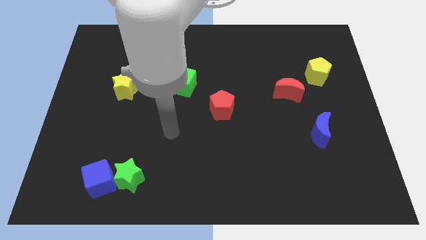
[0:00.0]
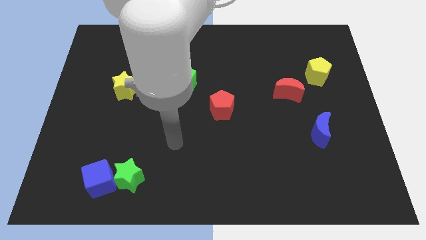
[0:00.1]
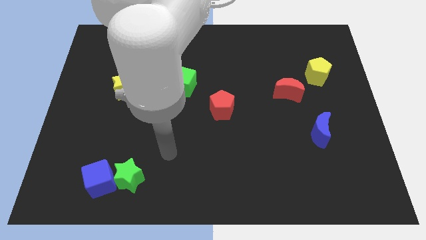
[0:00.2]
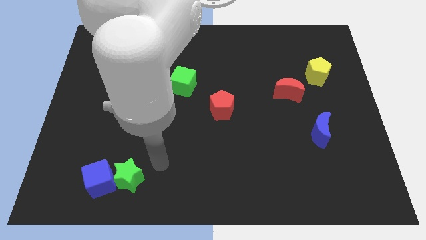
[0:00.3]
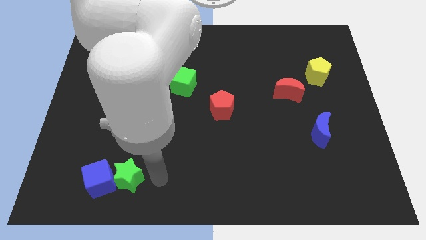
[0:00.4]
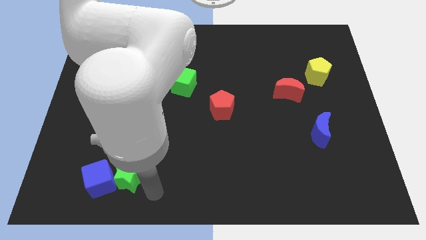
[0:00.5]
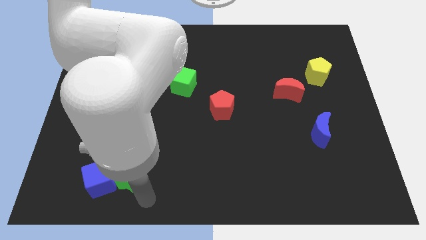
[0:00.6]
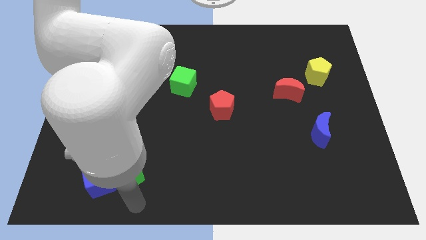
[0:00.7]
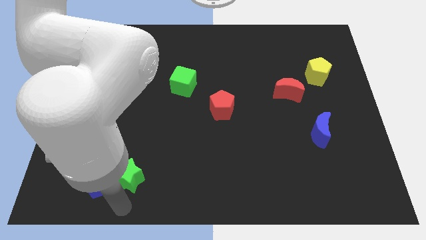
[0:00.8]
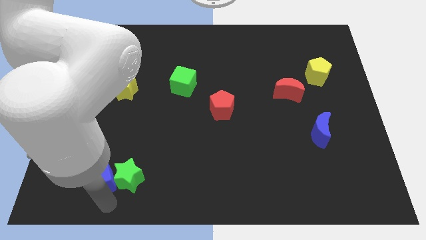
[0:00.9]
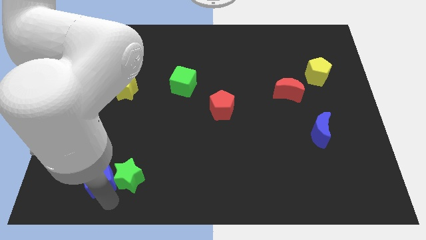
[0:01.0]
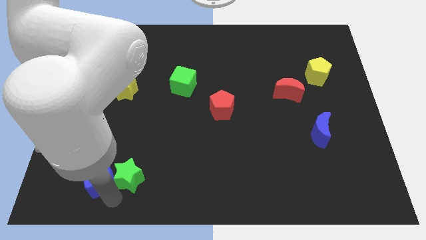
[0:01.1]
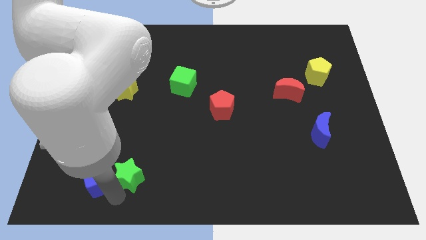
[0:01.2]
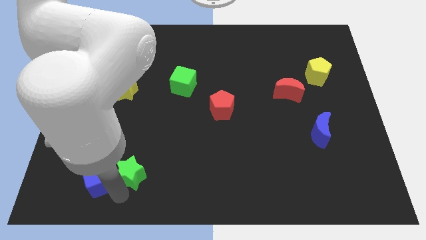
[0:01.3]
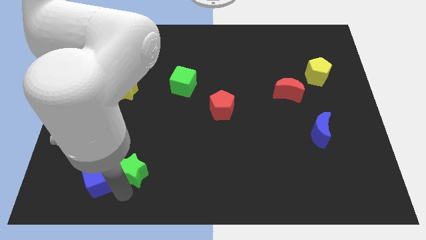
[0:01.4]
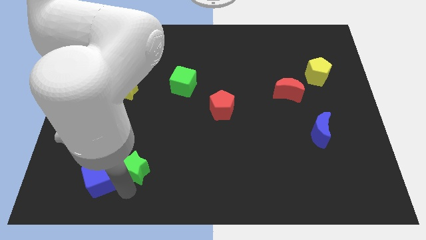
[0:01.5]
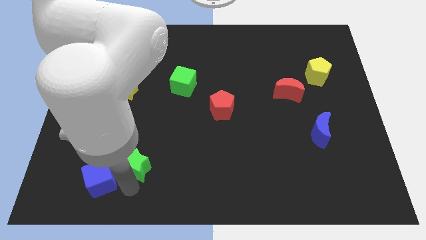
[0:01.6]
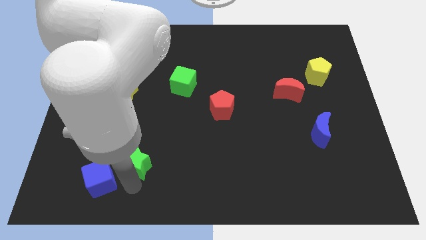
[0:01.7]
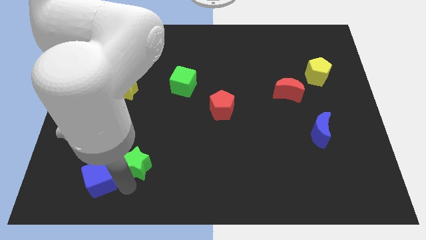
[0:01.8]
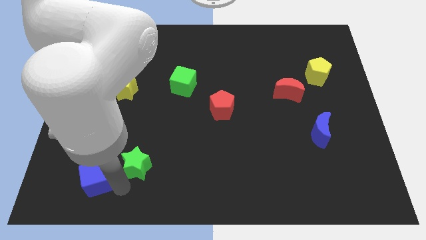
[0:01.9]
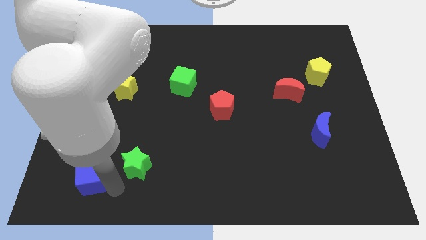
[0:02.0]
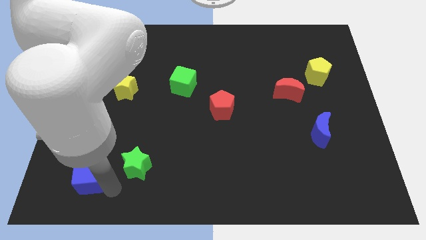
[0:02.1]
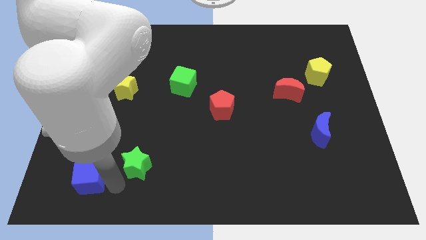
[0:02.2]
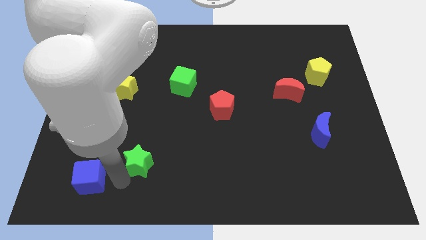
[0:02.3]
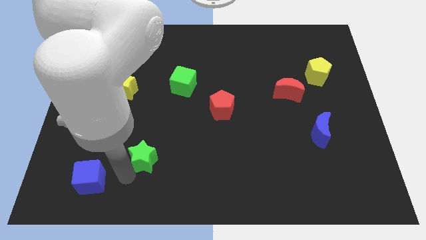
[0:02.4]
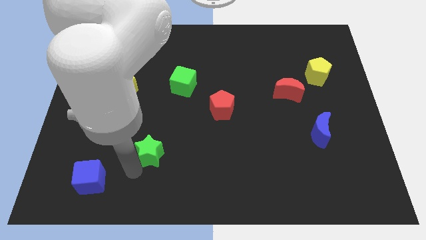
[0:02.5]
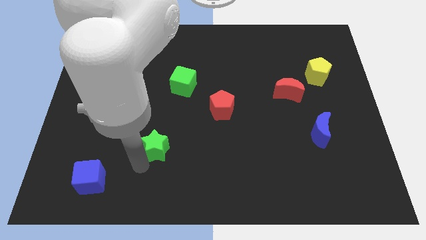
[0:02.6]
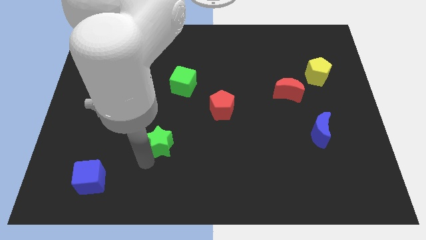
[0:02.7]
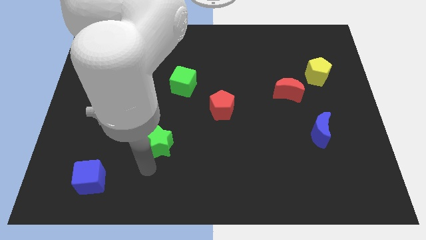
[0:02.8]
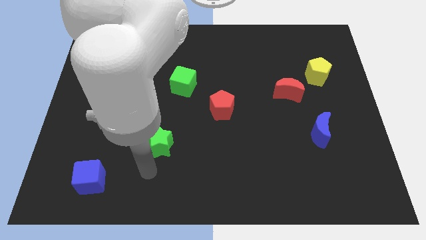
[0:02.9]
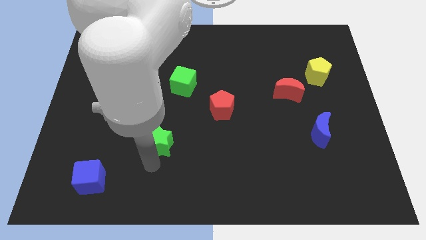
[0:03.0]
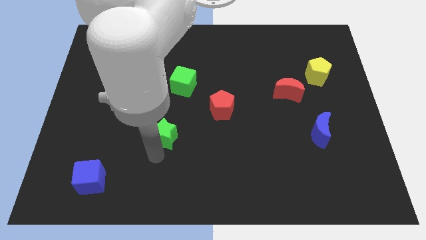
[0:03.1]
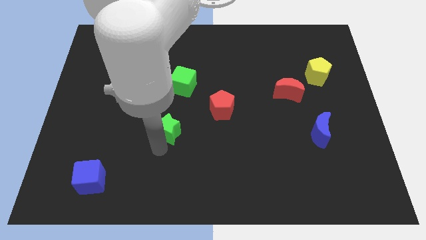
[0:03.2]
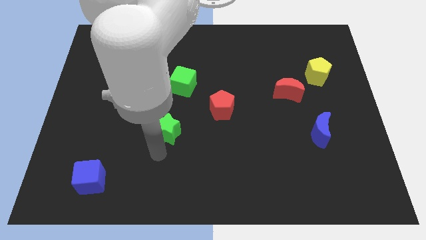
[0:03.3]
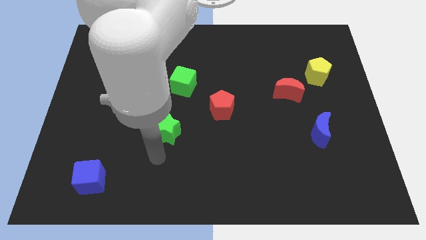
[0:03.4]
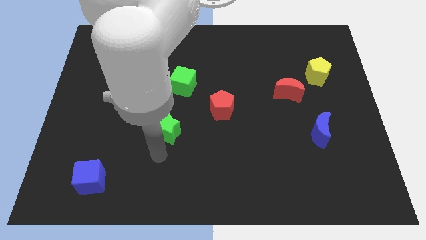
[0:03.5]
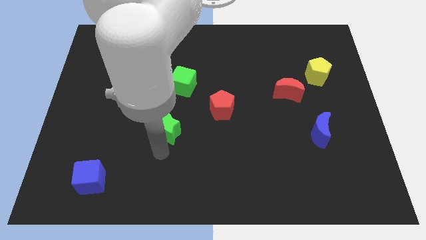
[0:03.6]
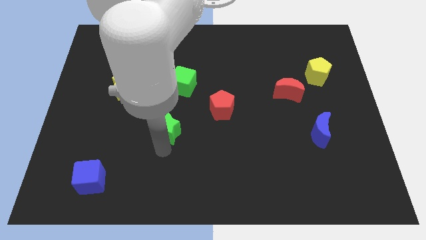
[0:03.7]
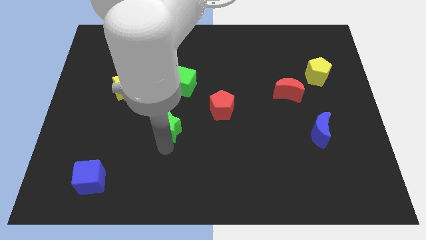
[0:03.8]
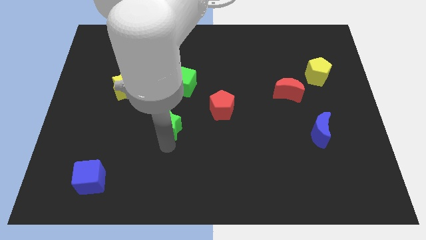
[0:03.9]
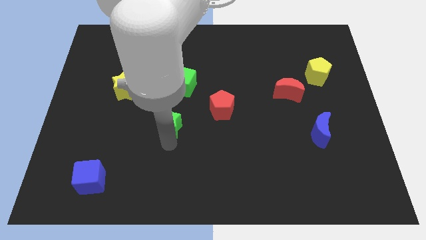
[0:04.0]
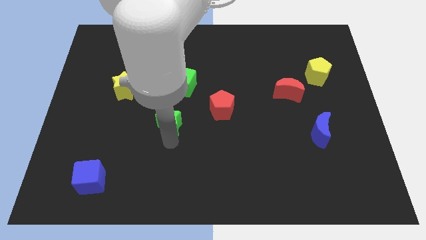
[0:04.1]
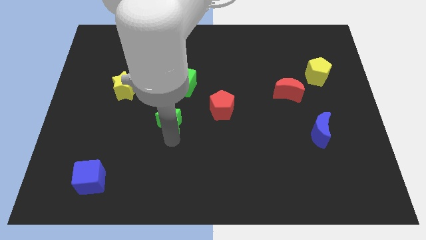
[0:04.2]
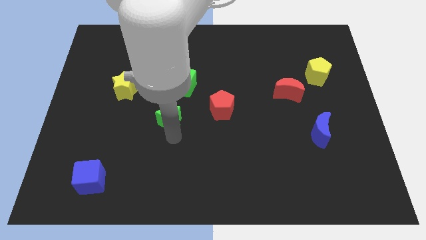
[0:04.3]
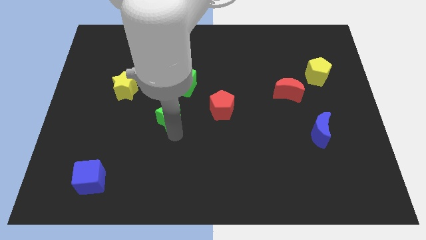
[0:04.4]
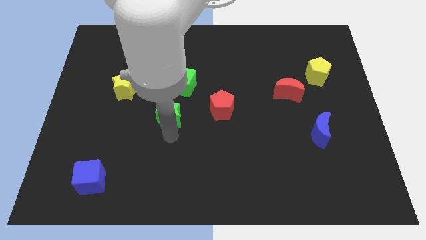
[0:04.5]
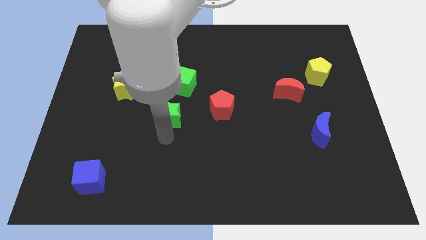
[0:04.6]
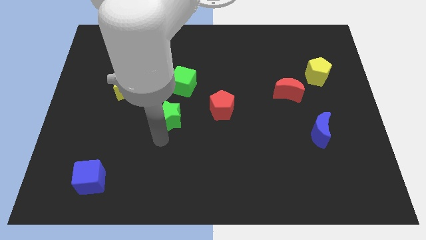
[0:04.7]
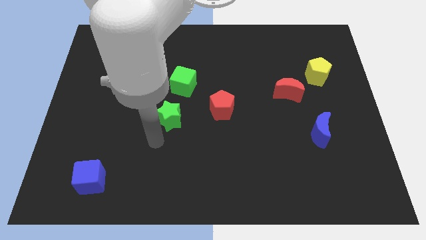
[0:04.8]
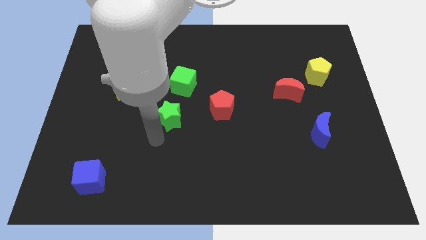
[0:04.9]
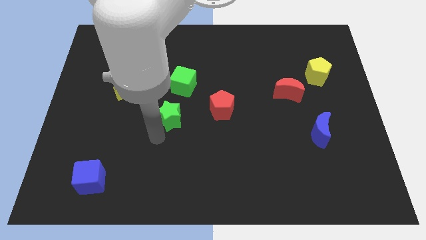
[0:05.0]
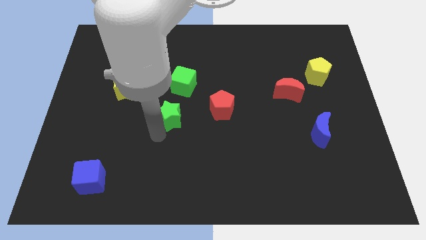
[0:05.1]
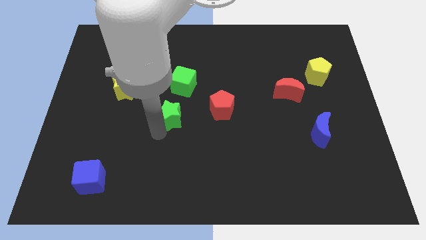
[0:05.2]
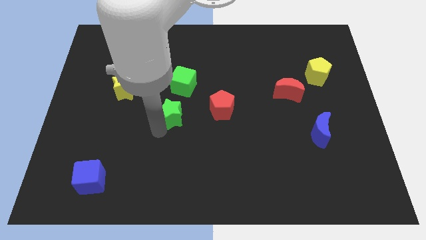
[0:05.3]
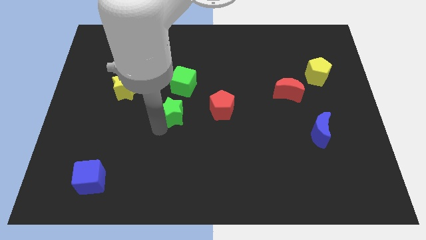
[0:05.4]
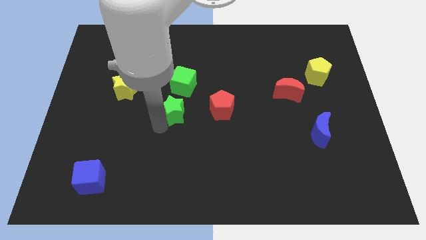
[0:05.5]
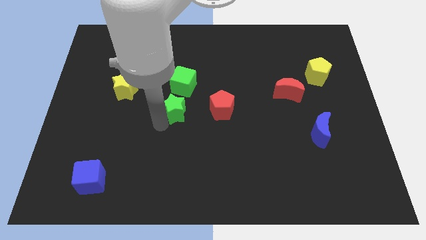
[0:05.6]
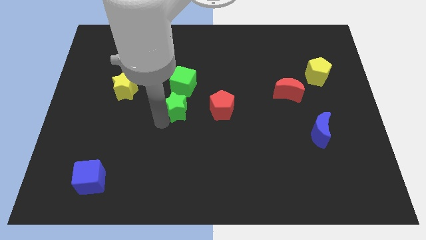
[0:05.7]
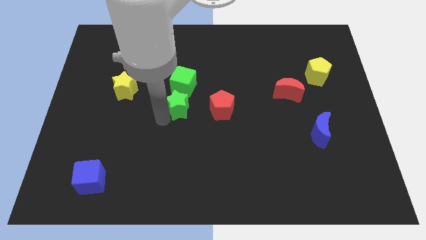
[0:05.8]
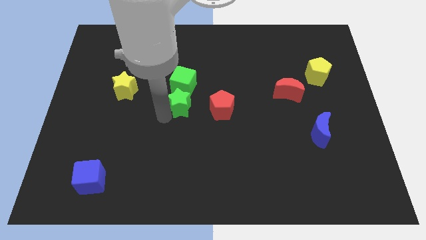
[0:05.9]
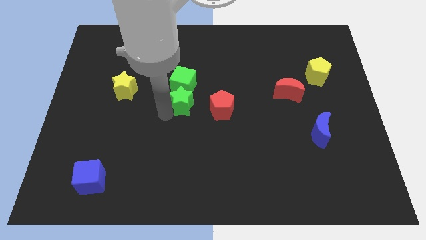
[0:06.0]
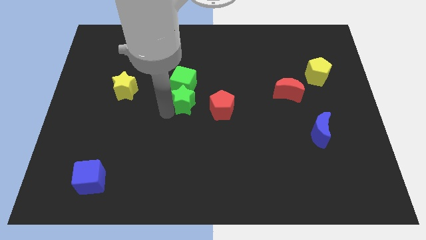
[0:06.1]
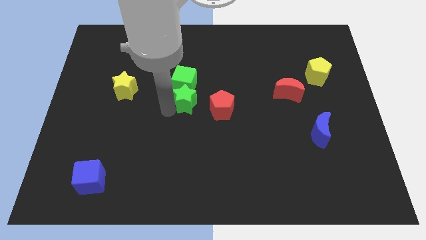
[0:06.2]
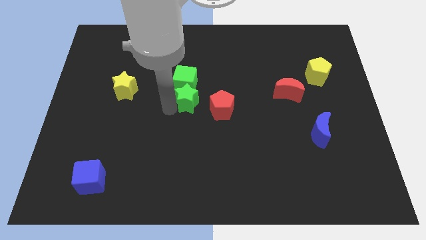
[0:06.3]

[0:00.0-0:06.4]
slide the green star up and right

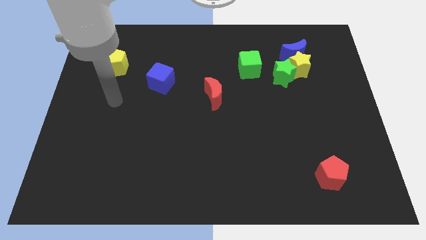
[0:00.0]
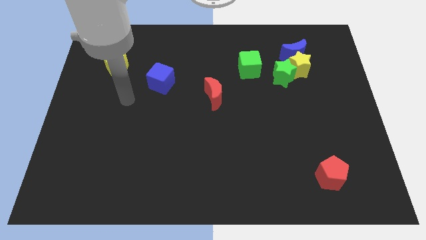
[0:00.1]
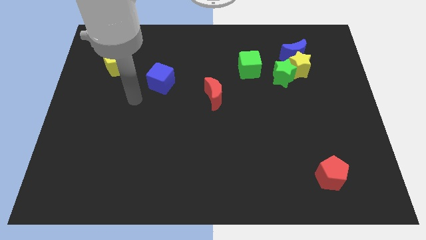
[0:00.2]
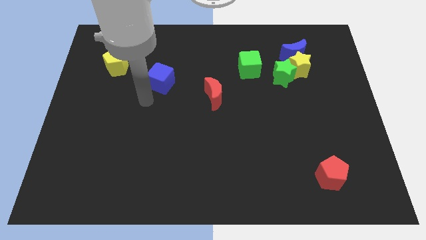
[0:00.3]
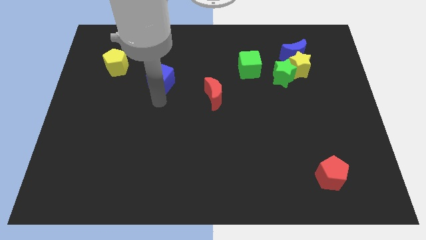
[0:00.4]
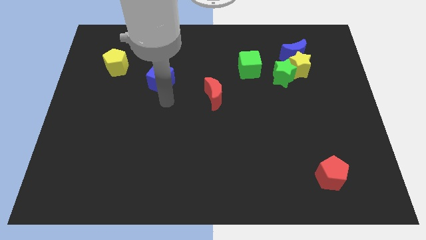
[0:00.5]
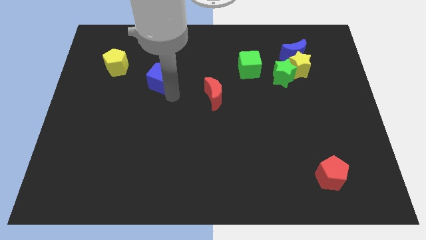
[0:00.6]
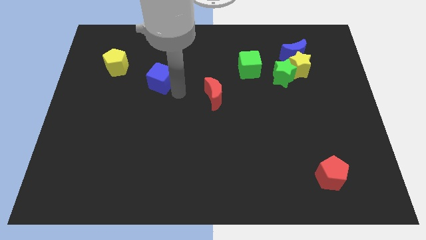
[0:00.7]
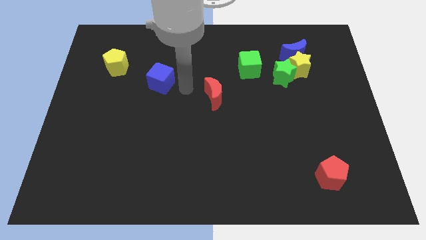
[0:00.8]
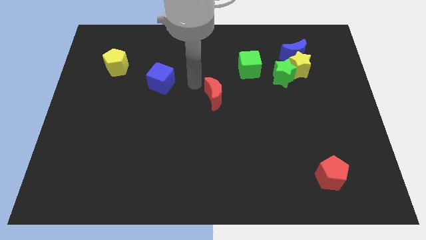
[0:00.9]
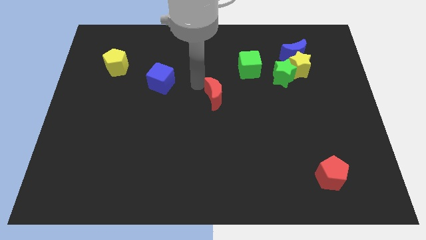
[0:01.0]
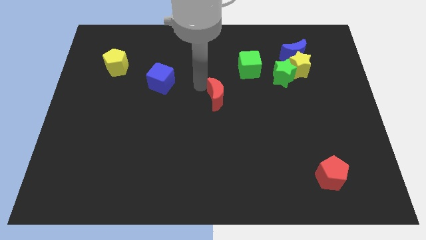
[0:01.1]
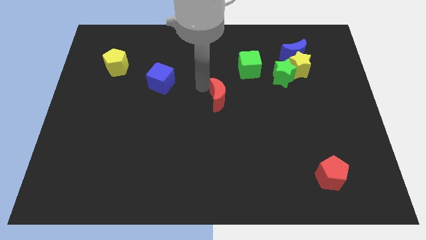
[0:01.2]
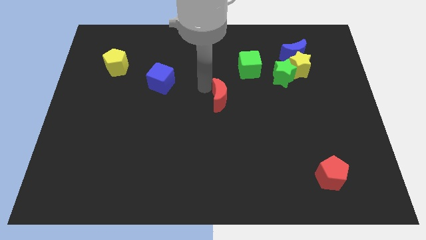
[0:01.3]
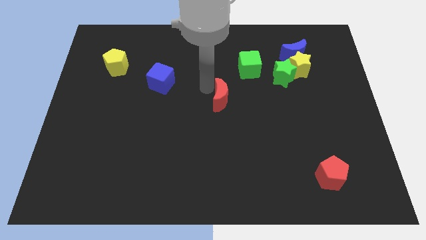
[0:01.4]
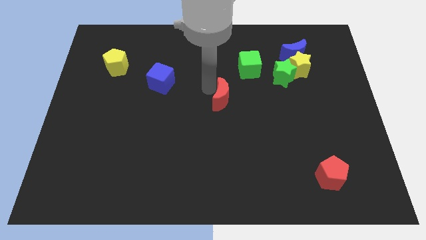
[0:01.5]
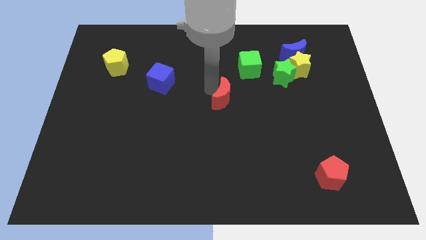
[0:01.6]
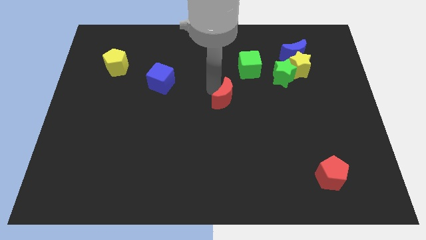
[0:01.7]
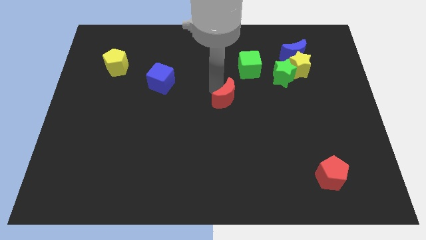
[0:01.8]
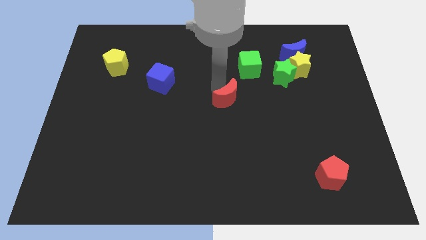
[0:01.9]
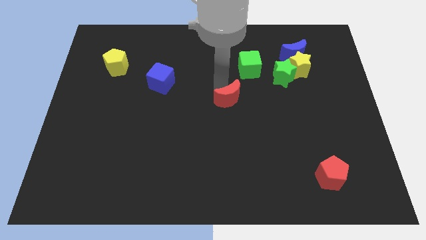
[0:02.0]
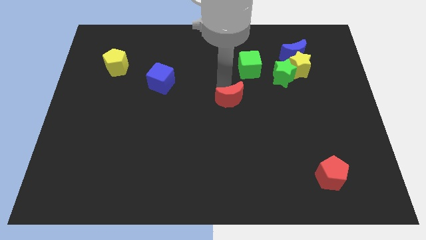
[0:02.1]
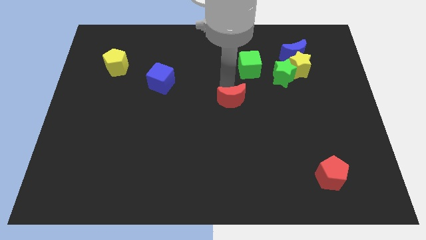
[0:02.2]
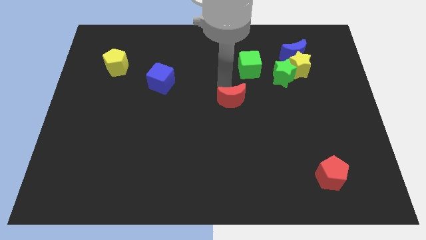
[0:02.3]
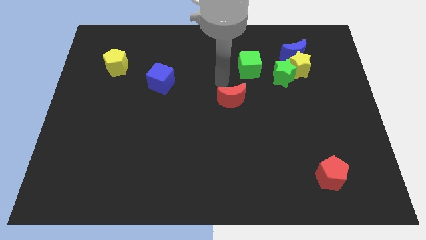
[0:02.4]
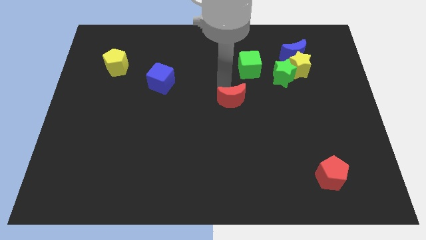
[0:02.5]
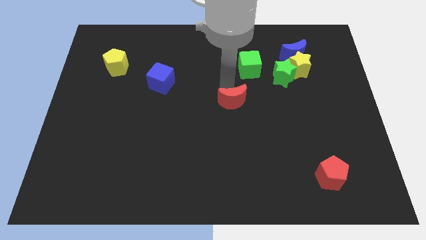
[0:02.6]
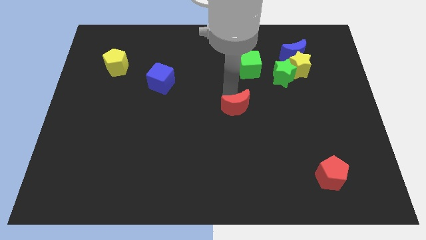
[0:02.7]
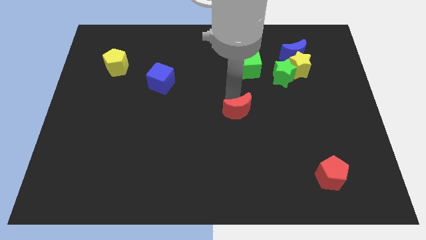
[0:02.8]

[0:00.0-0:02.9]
push the red moon a little downwards and right
